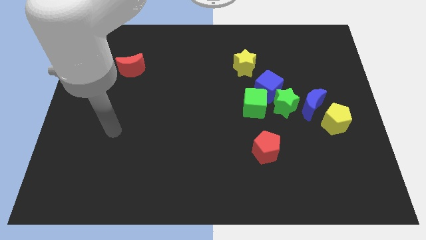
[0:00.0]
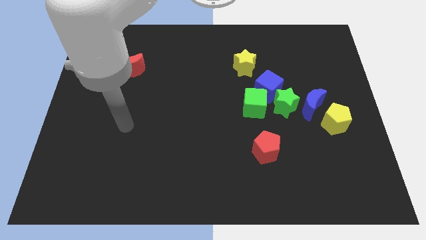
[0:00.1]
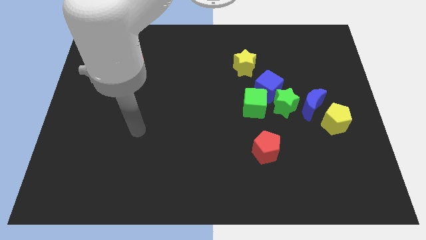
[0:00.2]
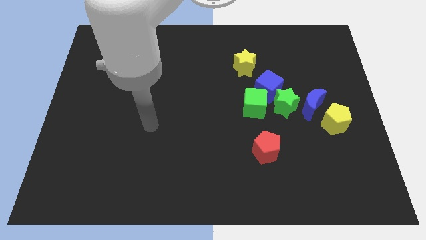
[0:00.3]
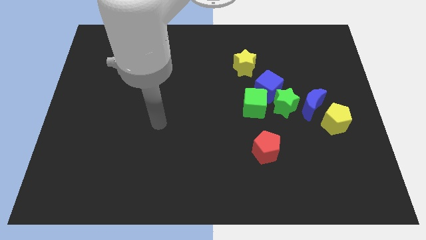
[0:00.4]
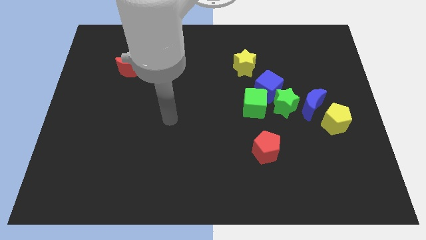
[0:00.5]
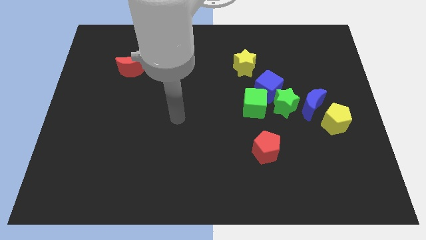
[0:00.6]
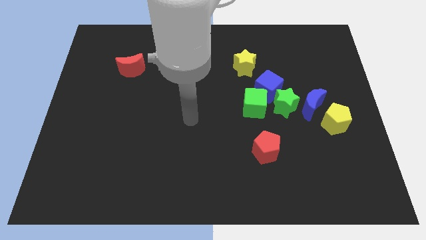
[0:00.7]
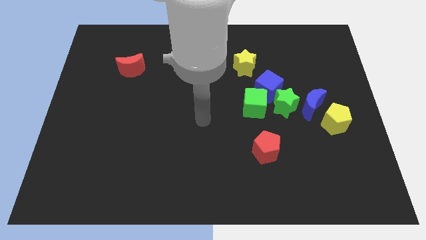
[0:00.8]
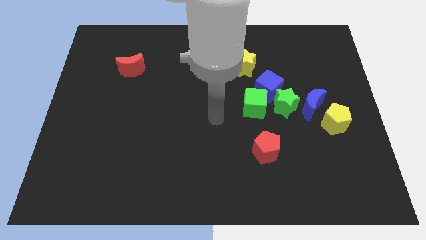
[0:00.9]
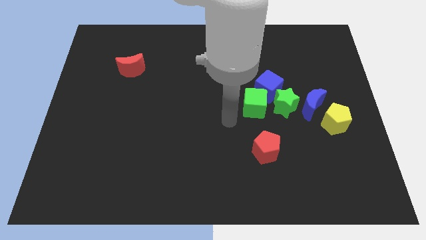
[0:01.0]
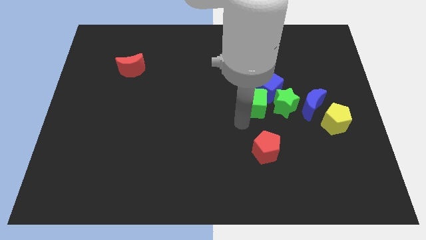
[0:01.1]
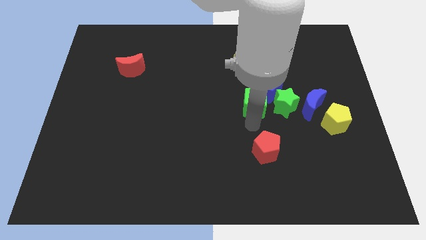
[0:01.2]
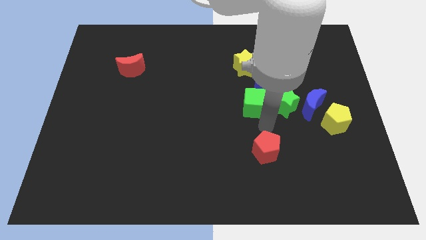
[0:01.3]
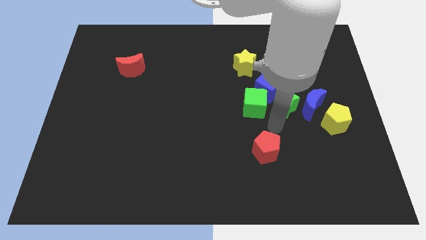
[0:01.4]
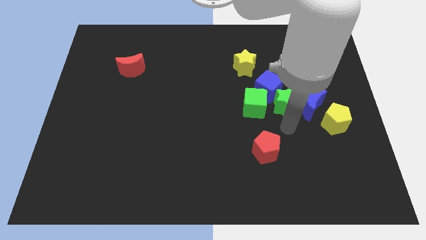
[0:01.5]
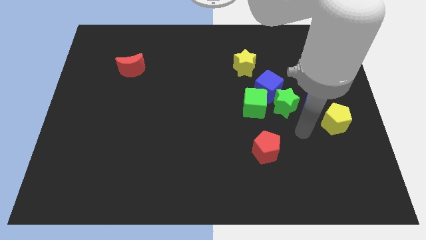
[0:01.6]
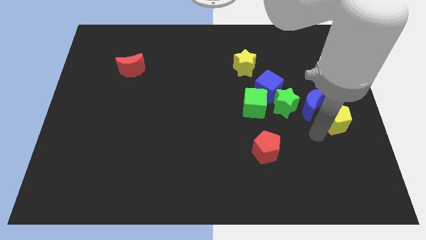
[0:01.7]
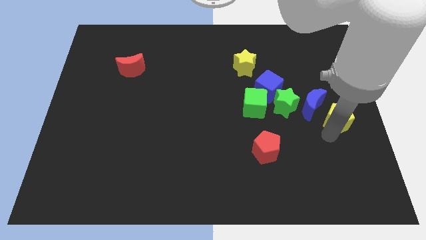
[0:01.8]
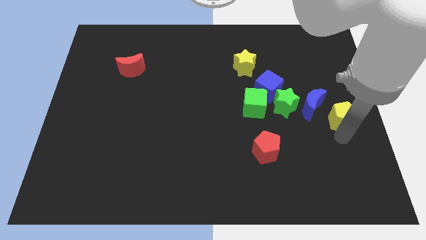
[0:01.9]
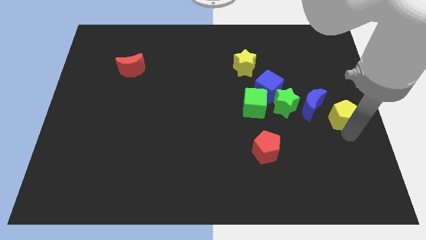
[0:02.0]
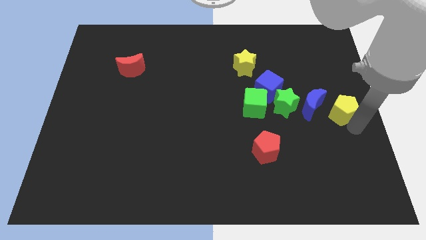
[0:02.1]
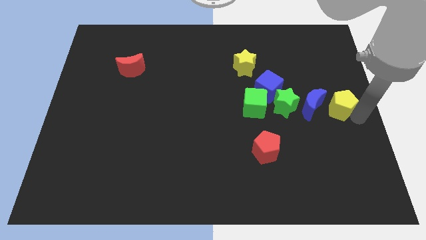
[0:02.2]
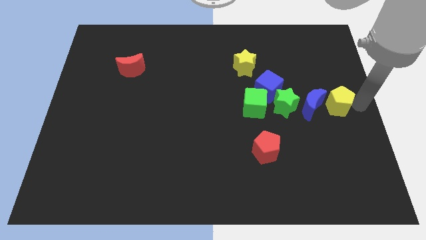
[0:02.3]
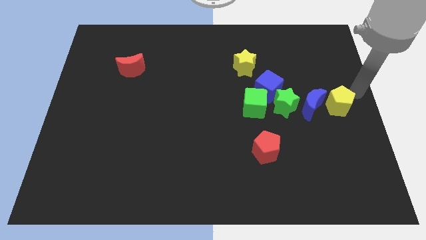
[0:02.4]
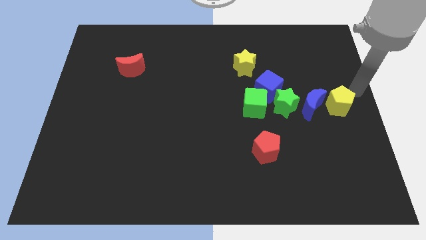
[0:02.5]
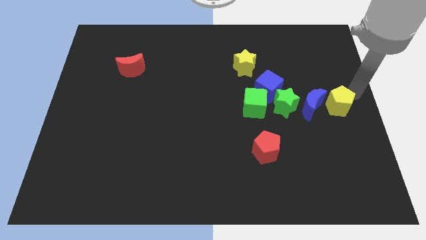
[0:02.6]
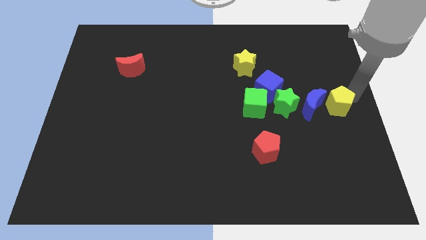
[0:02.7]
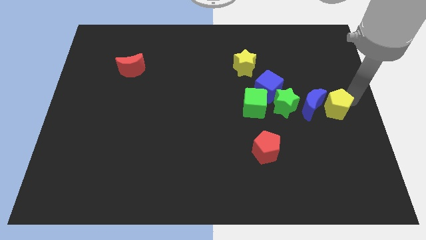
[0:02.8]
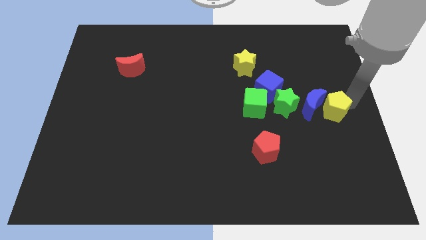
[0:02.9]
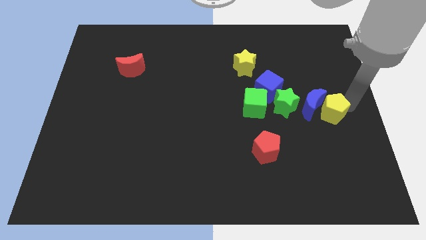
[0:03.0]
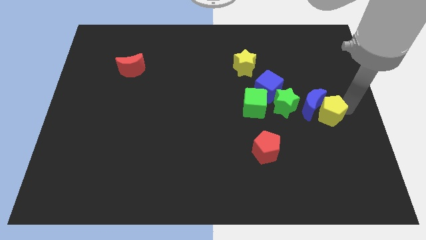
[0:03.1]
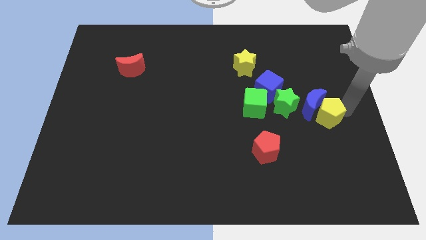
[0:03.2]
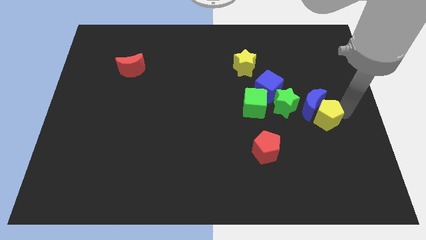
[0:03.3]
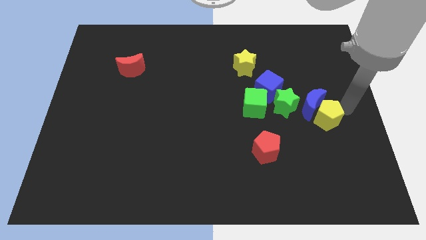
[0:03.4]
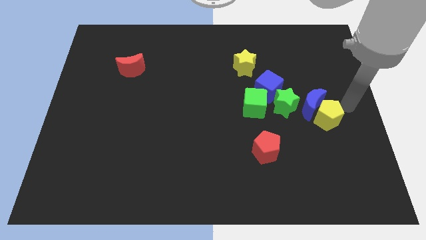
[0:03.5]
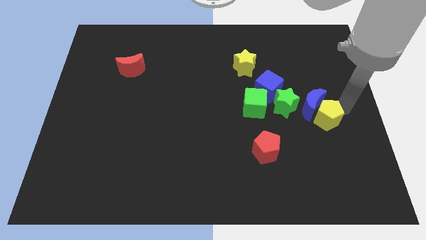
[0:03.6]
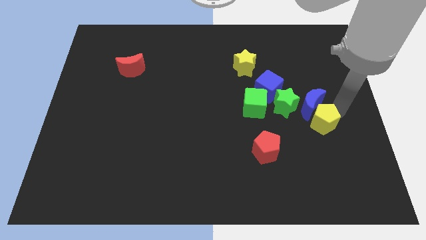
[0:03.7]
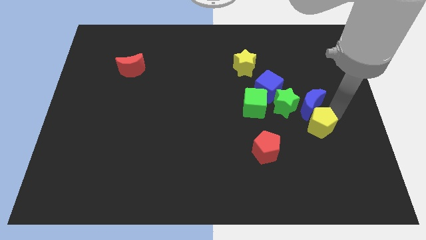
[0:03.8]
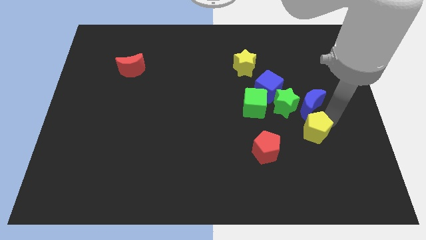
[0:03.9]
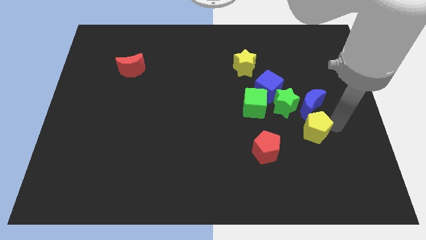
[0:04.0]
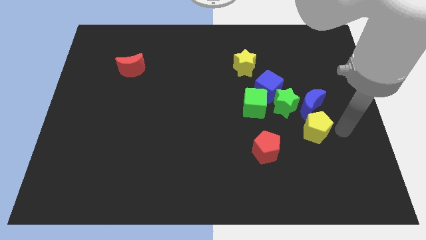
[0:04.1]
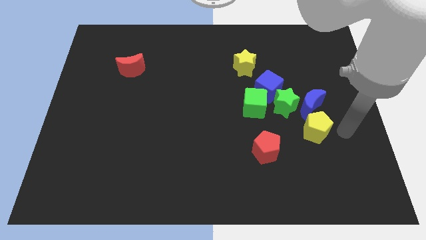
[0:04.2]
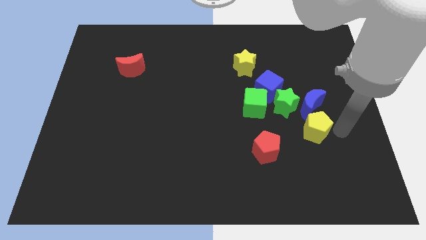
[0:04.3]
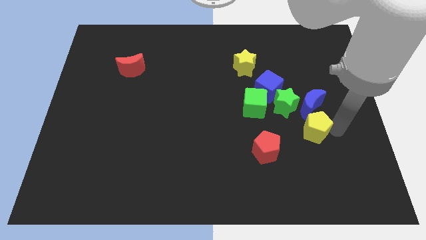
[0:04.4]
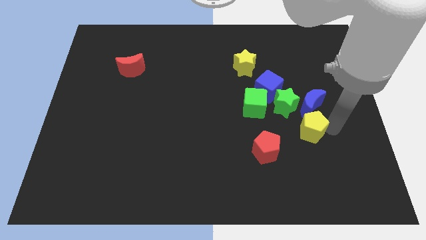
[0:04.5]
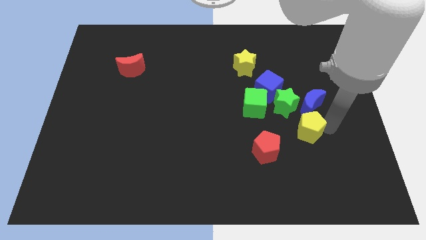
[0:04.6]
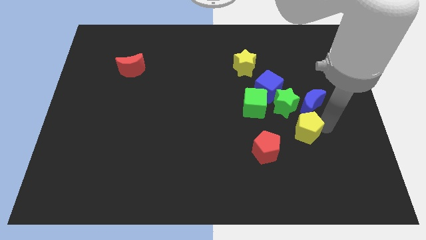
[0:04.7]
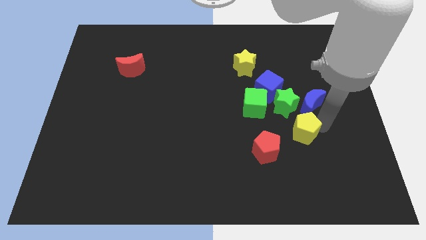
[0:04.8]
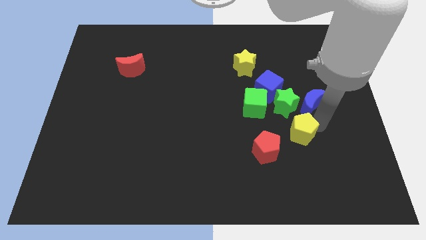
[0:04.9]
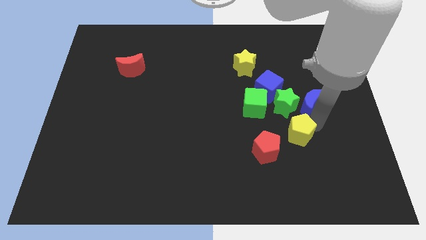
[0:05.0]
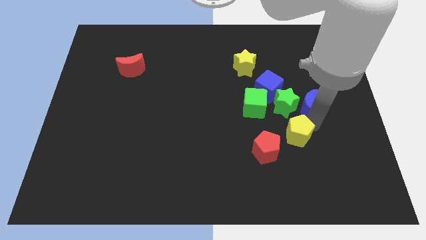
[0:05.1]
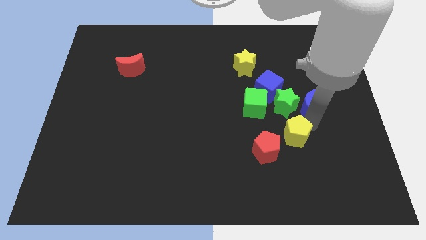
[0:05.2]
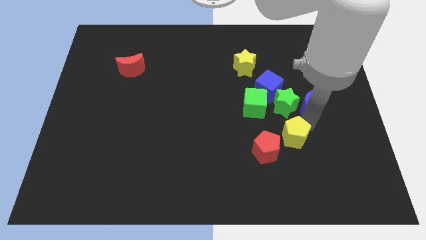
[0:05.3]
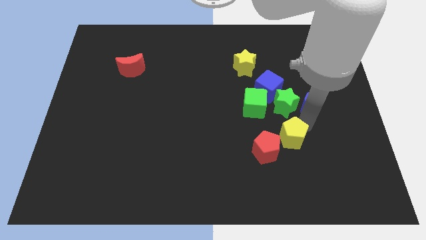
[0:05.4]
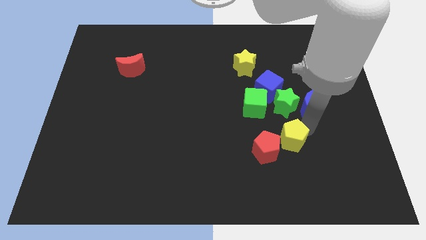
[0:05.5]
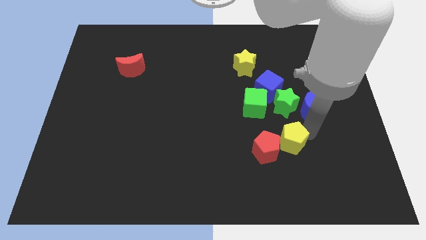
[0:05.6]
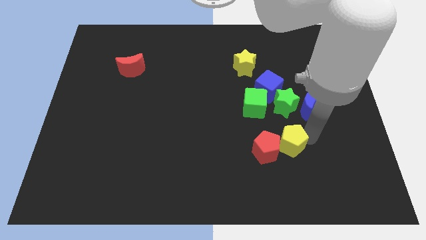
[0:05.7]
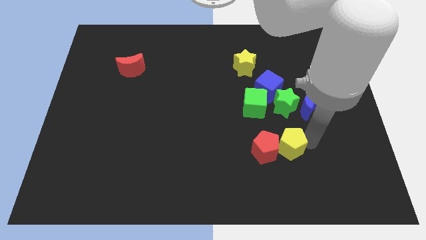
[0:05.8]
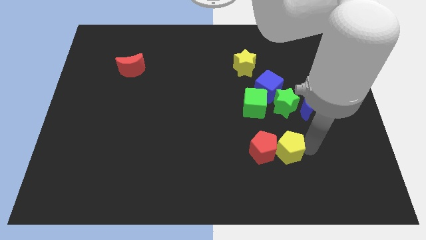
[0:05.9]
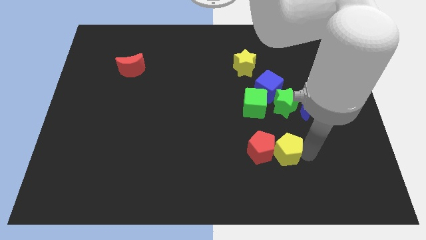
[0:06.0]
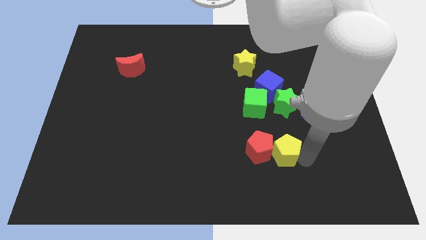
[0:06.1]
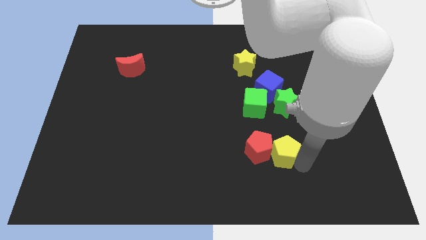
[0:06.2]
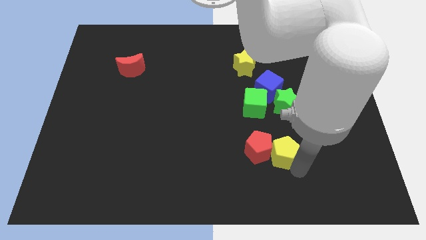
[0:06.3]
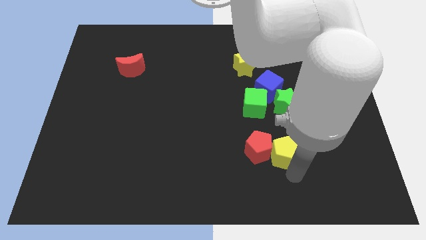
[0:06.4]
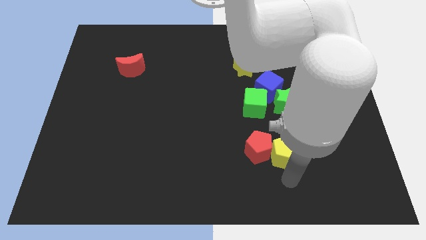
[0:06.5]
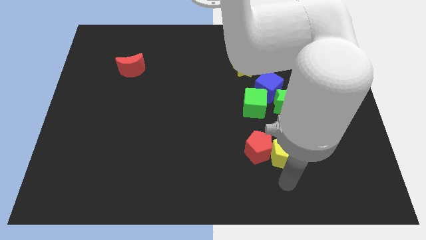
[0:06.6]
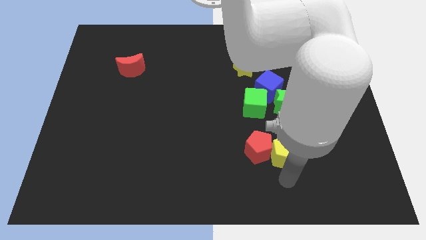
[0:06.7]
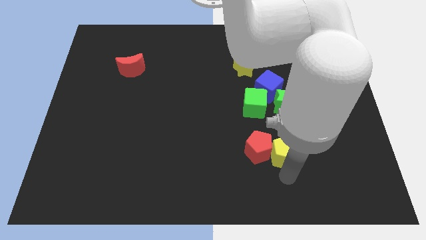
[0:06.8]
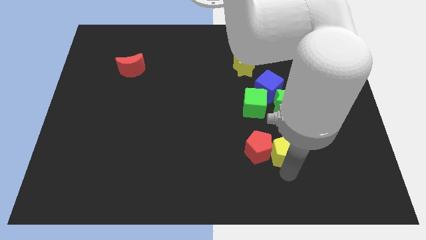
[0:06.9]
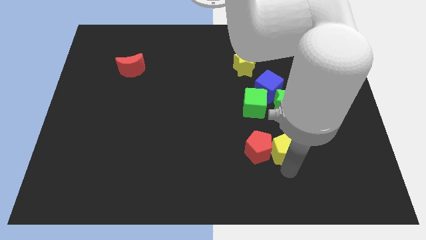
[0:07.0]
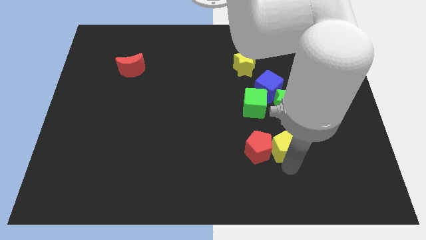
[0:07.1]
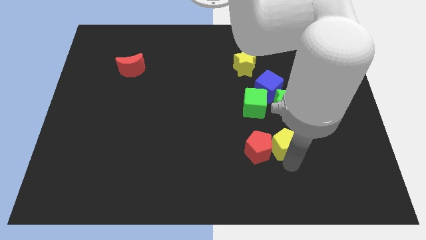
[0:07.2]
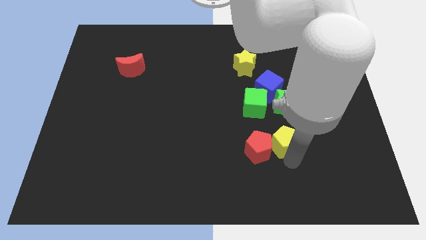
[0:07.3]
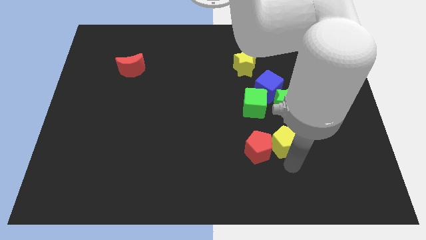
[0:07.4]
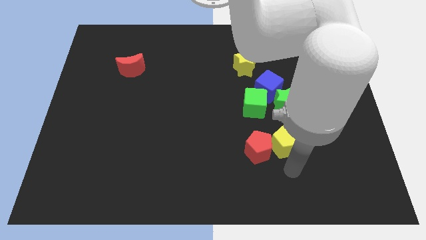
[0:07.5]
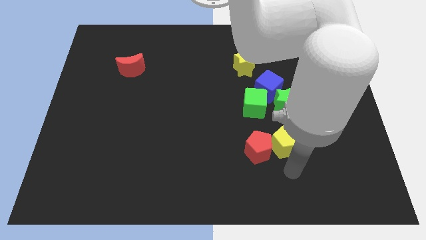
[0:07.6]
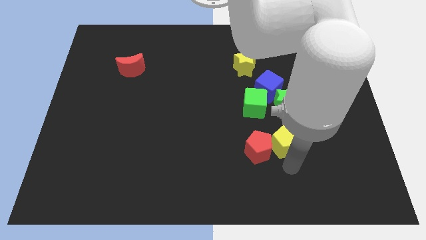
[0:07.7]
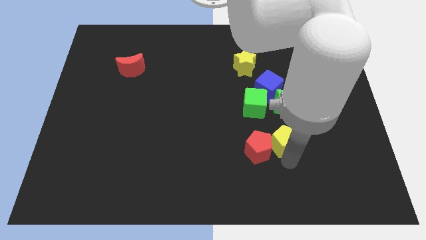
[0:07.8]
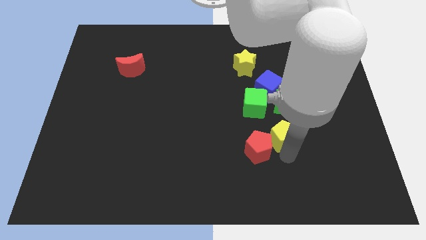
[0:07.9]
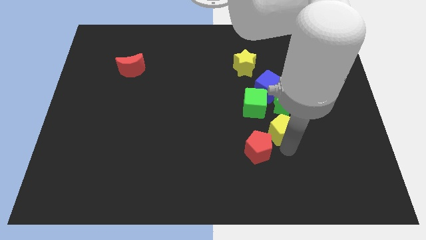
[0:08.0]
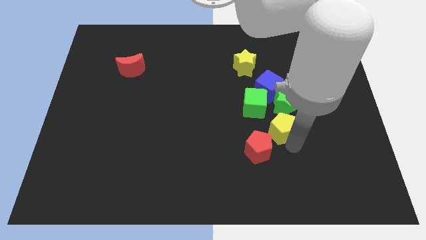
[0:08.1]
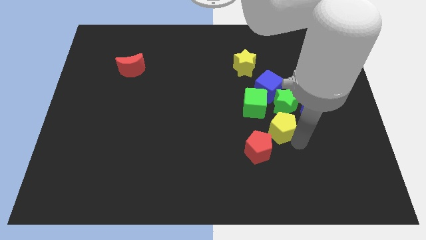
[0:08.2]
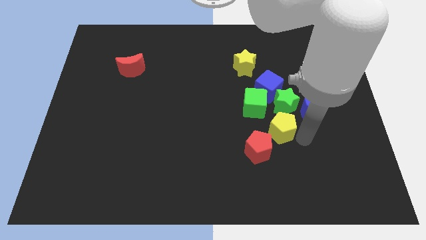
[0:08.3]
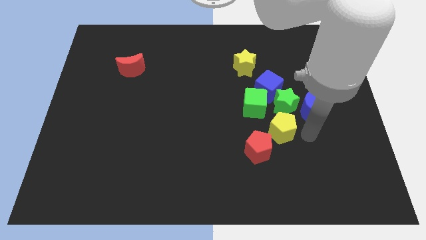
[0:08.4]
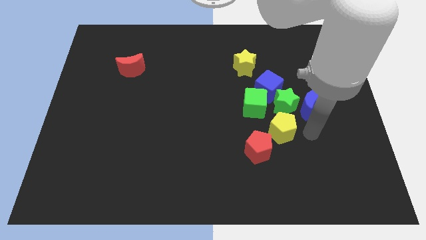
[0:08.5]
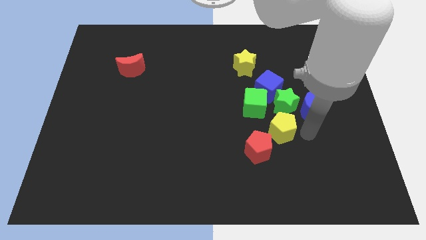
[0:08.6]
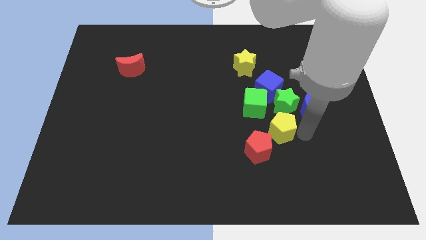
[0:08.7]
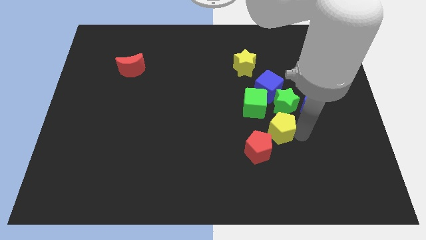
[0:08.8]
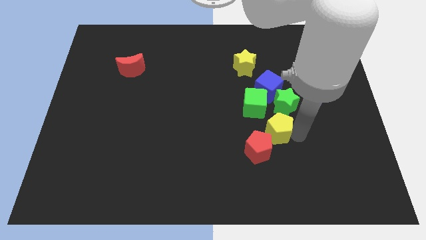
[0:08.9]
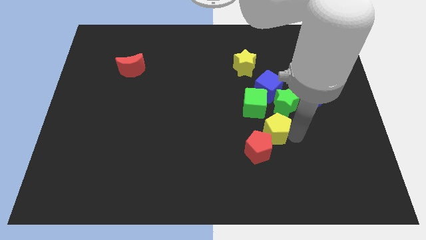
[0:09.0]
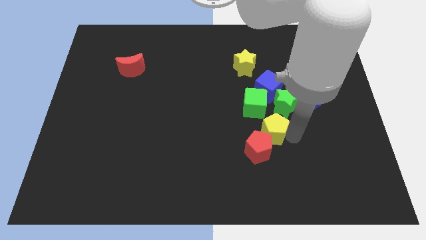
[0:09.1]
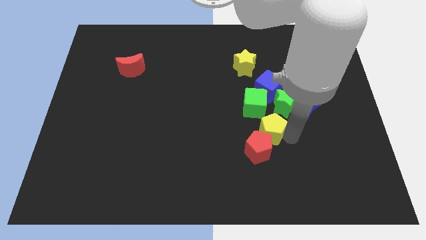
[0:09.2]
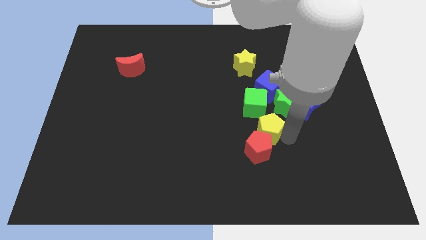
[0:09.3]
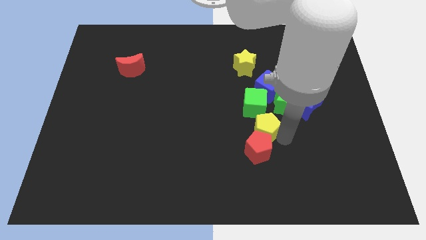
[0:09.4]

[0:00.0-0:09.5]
push the yellow pentagon to the top left of the red pentagon
